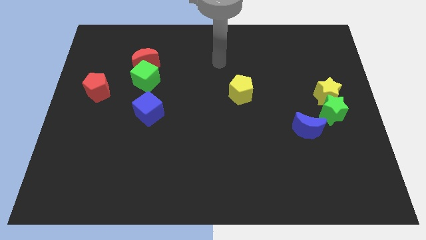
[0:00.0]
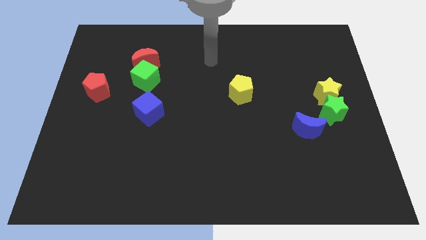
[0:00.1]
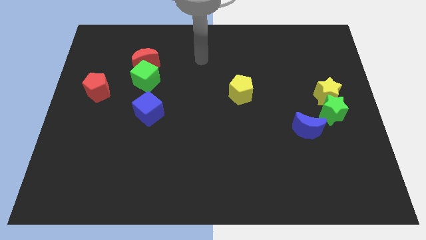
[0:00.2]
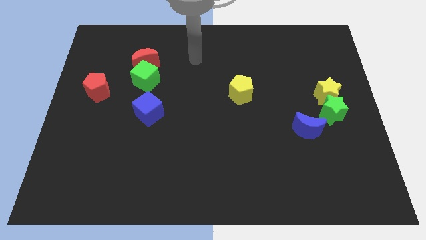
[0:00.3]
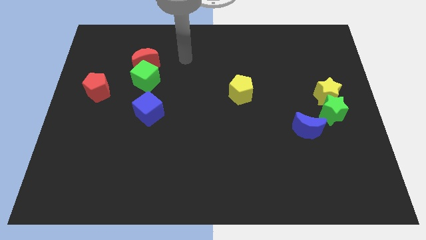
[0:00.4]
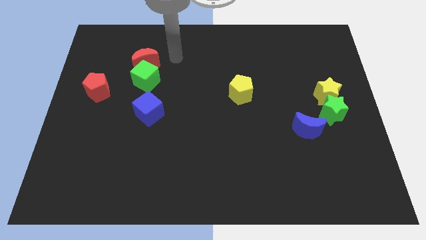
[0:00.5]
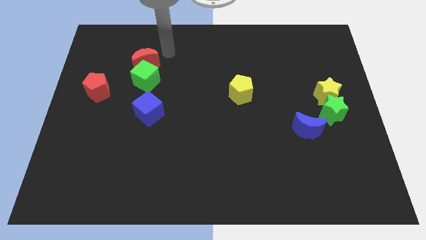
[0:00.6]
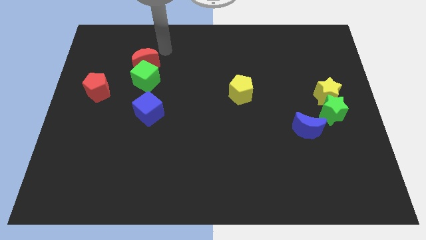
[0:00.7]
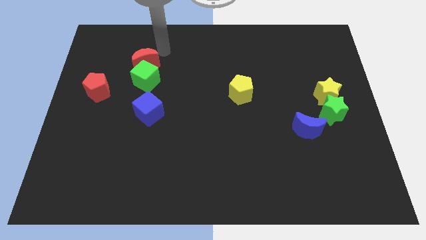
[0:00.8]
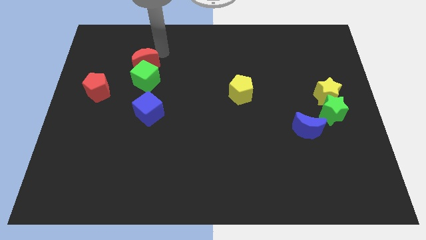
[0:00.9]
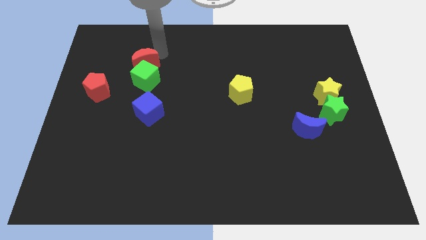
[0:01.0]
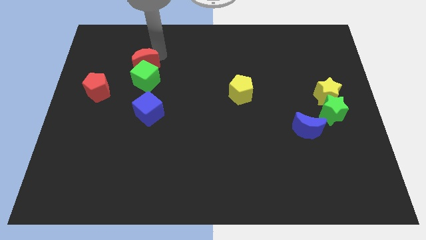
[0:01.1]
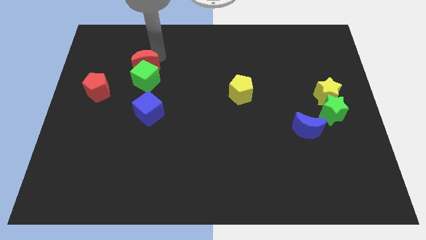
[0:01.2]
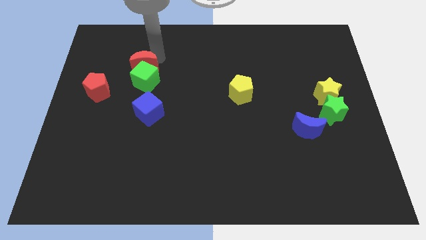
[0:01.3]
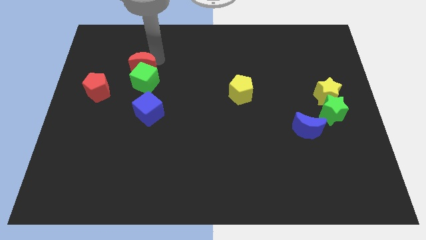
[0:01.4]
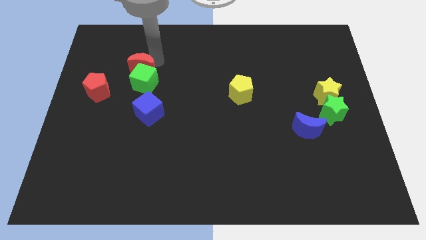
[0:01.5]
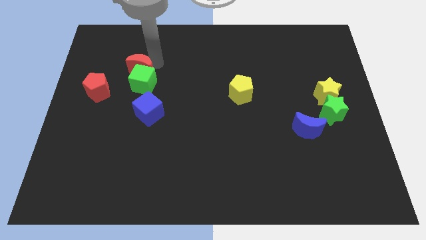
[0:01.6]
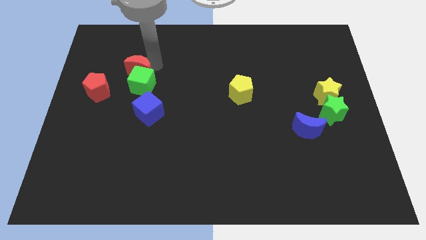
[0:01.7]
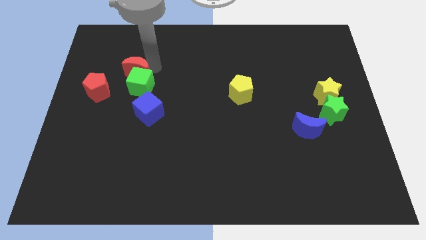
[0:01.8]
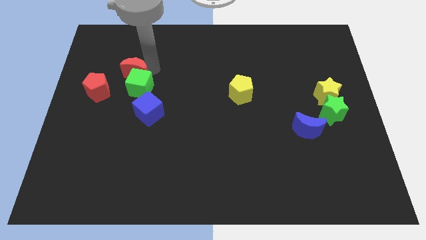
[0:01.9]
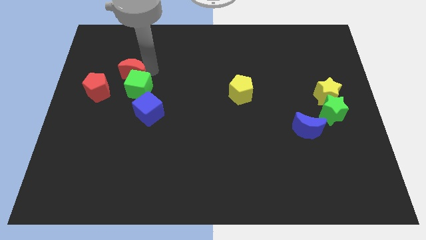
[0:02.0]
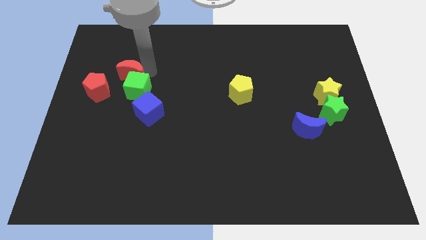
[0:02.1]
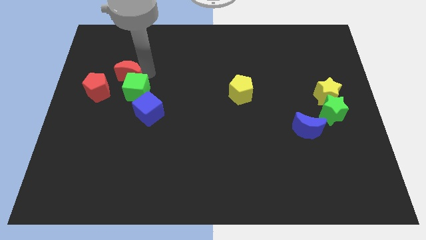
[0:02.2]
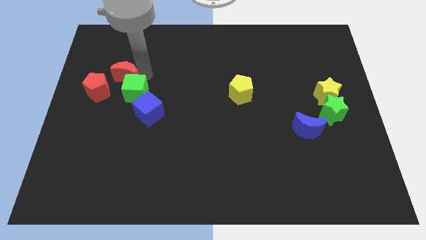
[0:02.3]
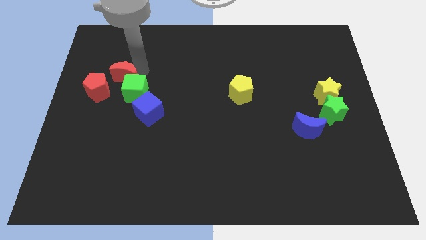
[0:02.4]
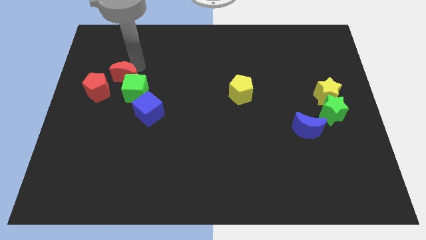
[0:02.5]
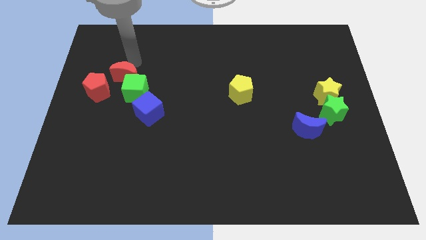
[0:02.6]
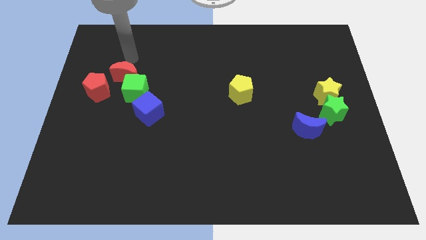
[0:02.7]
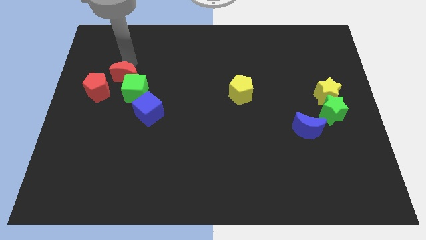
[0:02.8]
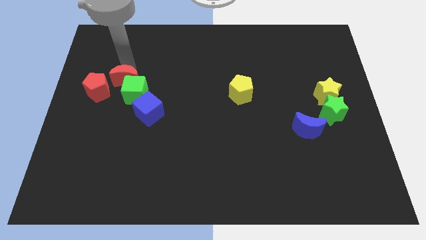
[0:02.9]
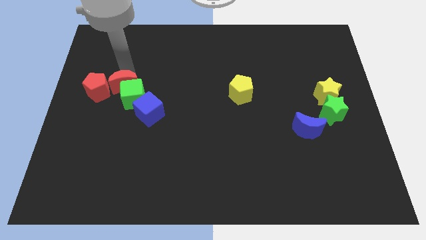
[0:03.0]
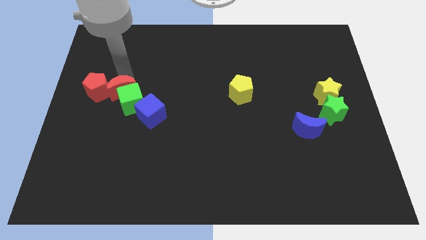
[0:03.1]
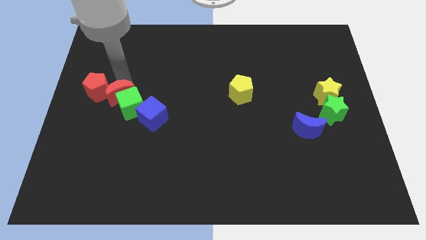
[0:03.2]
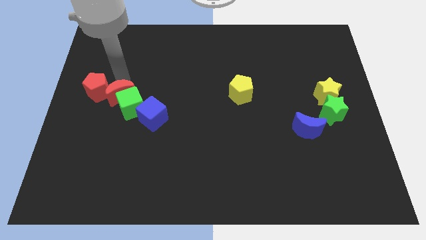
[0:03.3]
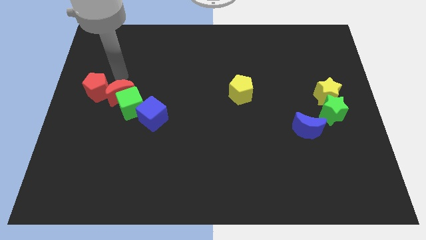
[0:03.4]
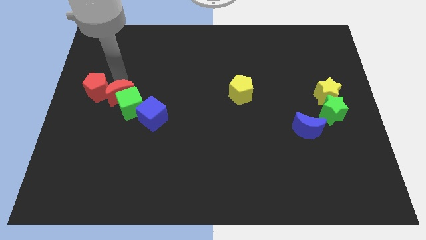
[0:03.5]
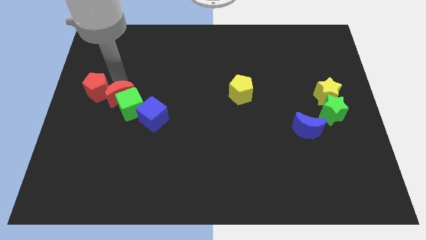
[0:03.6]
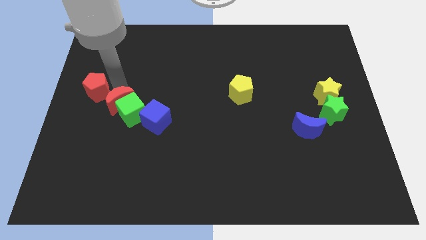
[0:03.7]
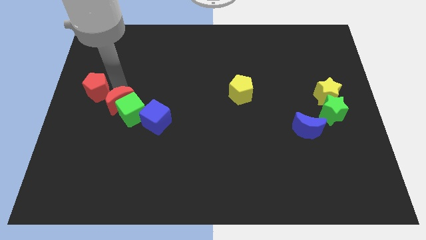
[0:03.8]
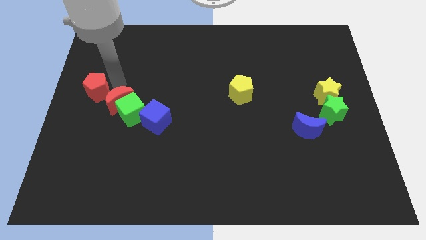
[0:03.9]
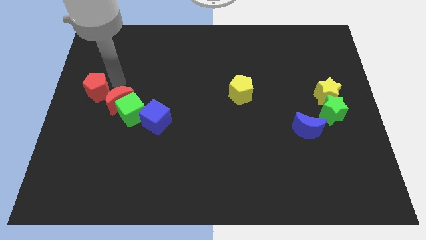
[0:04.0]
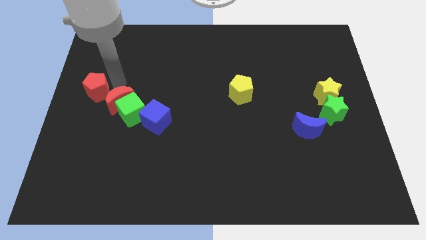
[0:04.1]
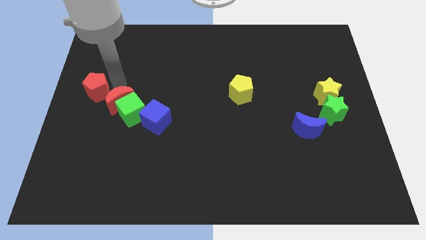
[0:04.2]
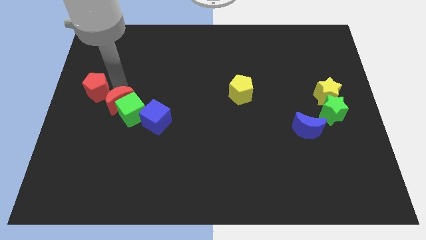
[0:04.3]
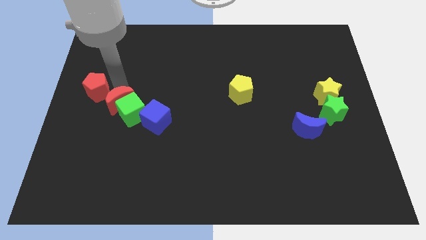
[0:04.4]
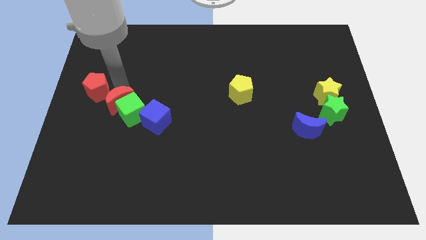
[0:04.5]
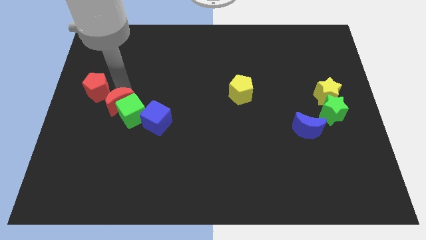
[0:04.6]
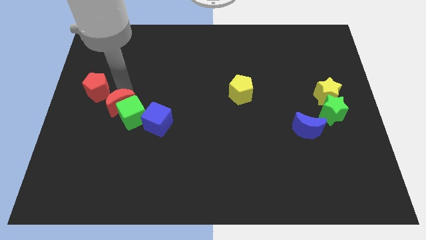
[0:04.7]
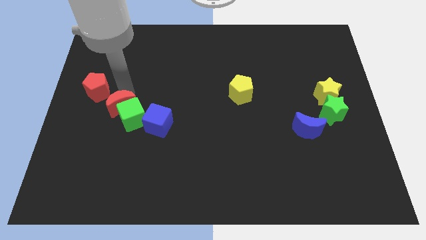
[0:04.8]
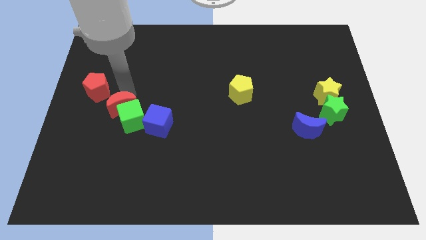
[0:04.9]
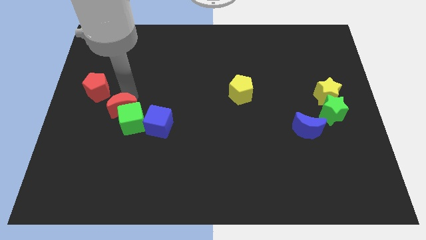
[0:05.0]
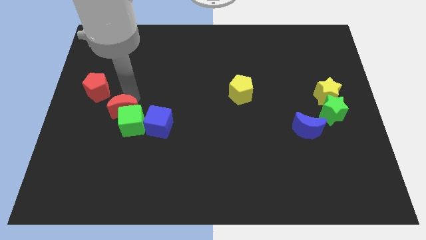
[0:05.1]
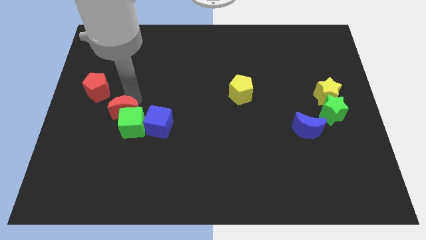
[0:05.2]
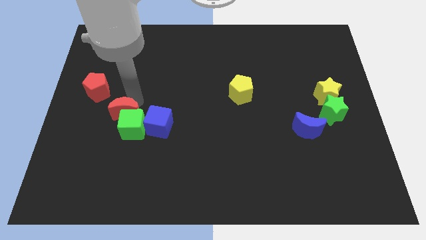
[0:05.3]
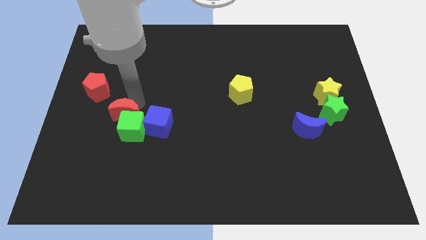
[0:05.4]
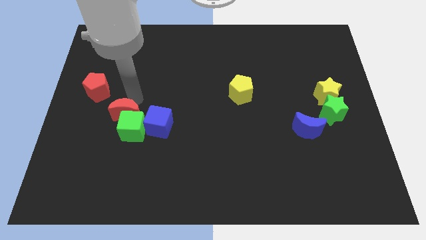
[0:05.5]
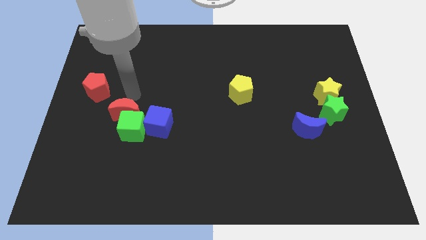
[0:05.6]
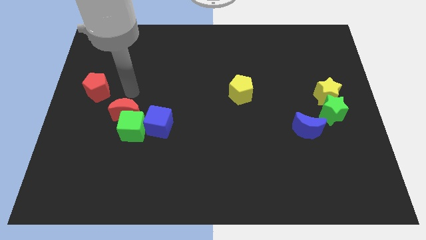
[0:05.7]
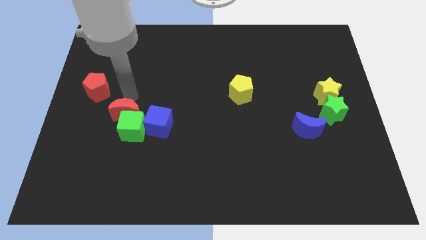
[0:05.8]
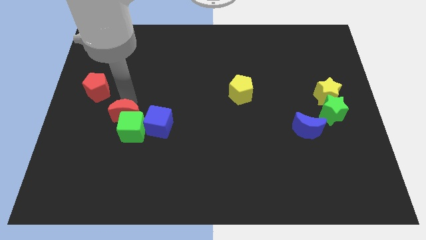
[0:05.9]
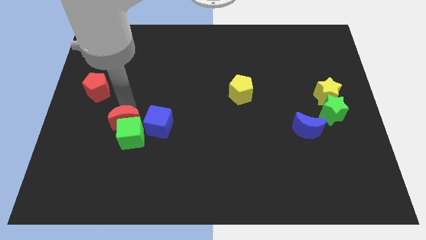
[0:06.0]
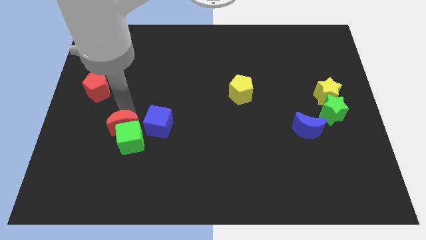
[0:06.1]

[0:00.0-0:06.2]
move the red moon downwards

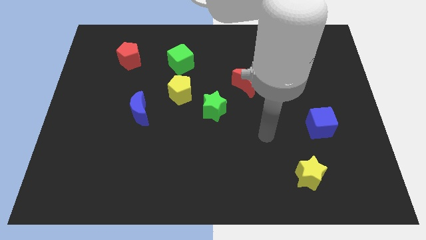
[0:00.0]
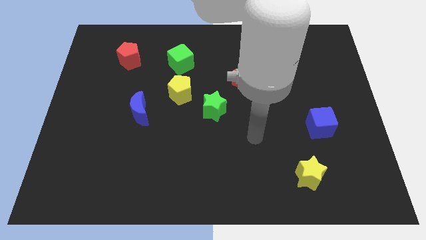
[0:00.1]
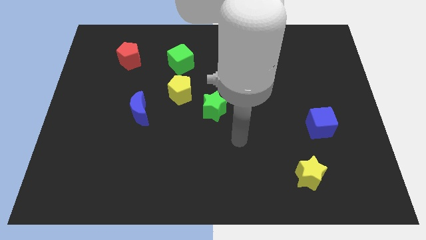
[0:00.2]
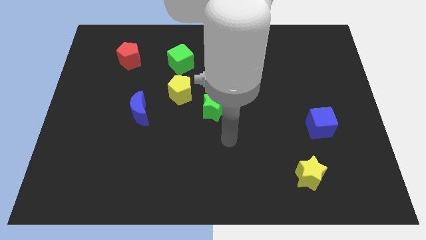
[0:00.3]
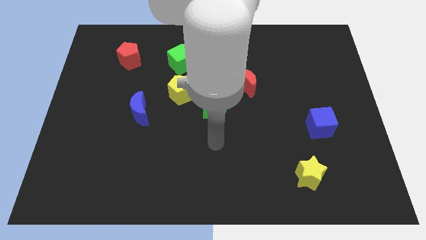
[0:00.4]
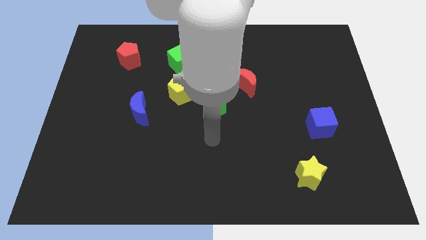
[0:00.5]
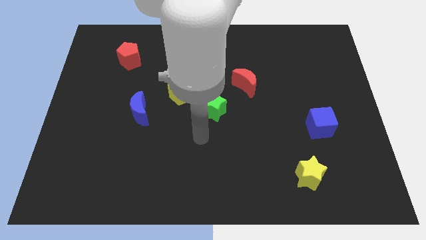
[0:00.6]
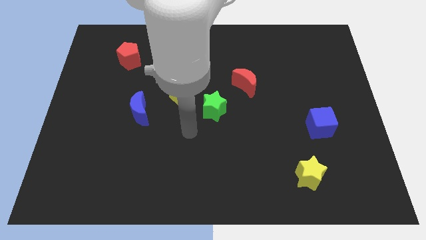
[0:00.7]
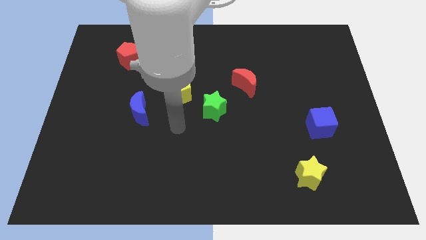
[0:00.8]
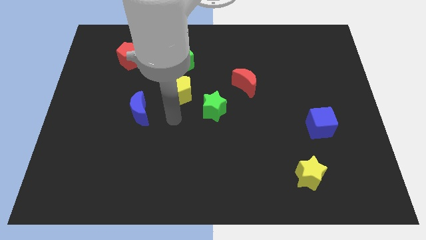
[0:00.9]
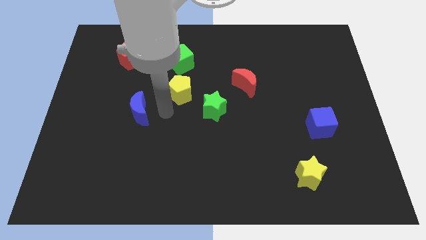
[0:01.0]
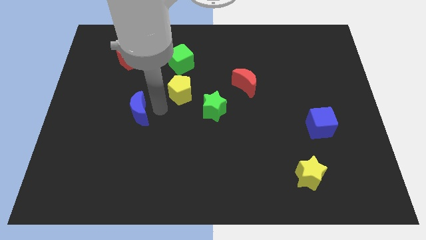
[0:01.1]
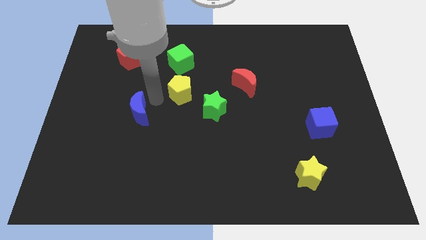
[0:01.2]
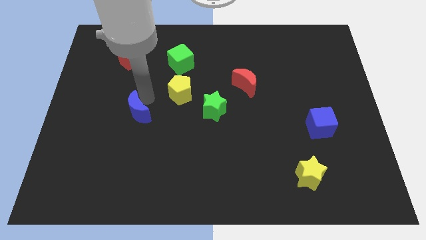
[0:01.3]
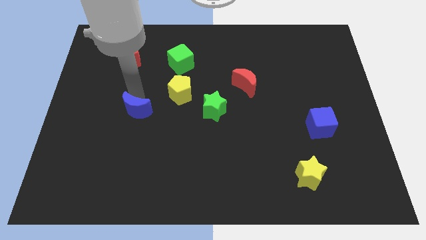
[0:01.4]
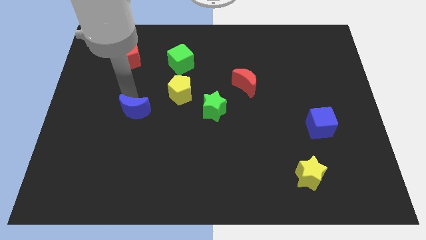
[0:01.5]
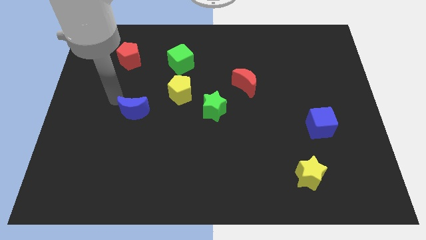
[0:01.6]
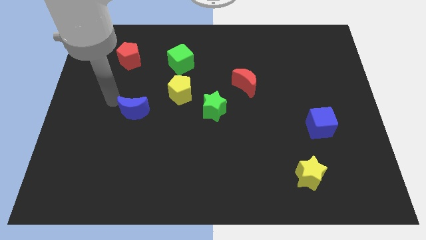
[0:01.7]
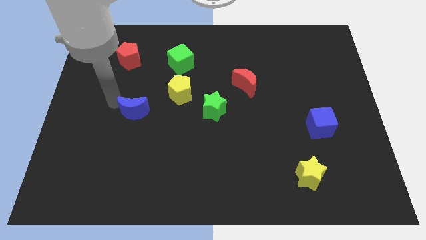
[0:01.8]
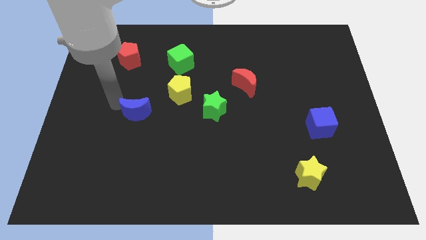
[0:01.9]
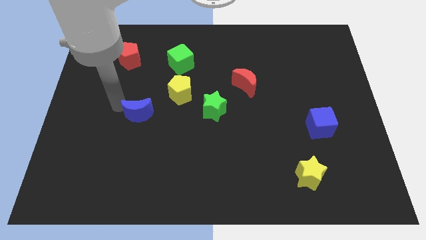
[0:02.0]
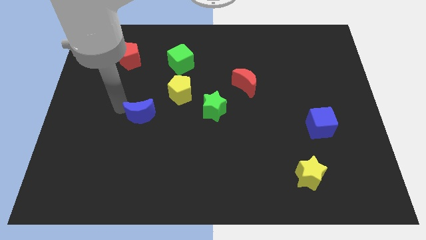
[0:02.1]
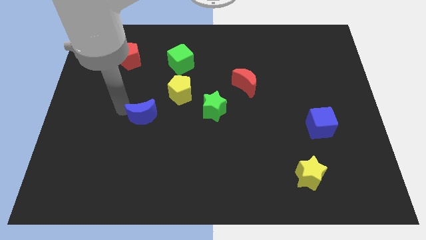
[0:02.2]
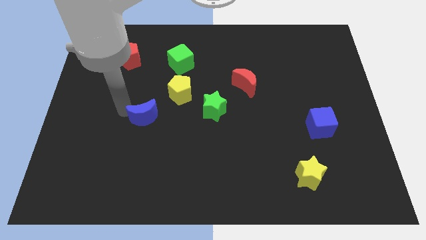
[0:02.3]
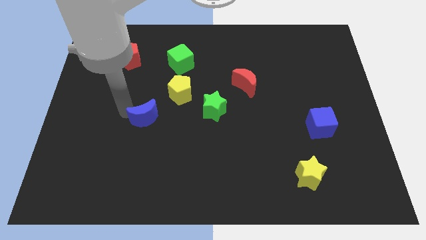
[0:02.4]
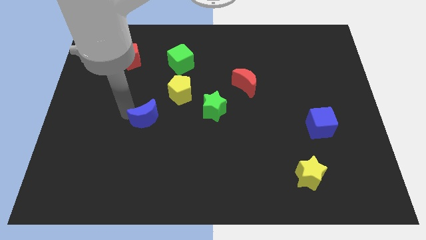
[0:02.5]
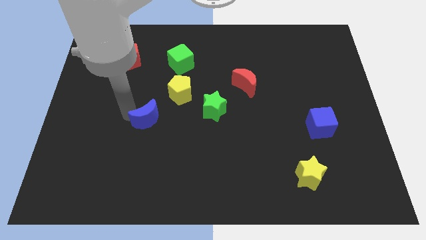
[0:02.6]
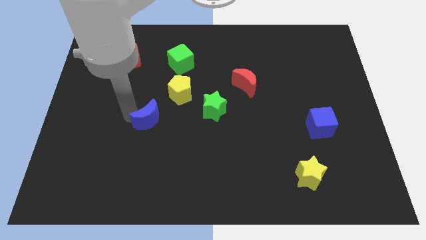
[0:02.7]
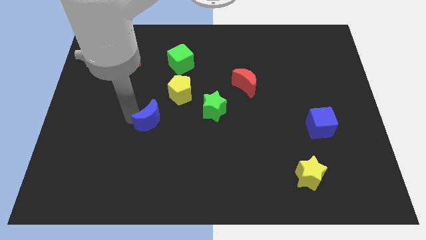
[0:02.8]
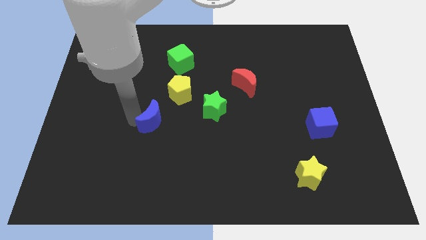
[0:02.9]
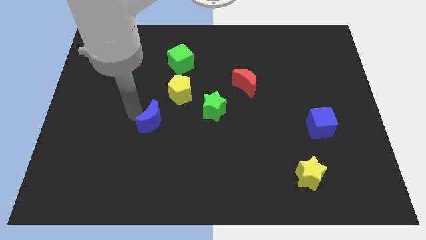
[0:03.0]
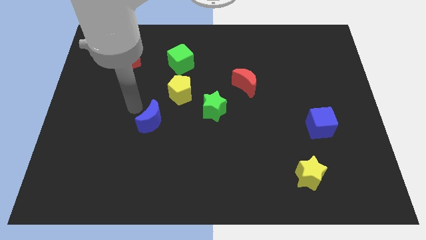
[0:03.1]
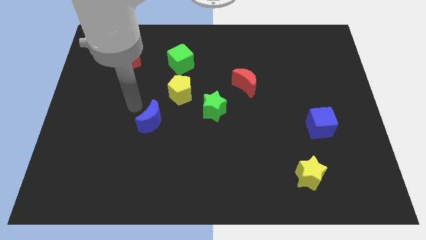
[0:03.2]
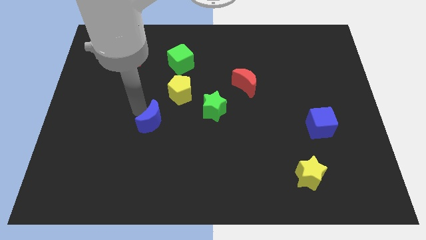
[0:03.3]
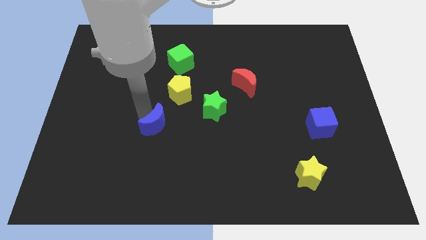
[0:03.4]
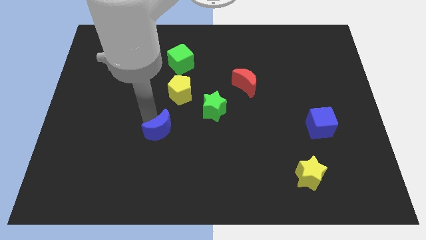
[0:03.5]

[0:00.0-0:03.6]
push the blue moon somewhat diagonally down and to the right
